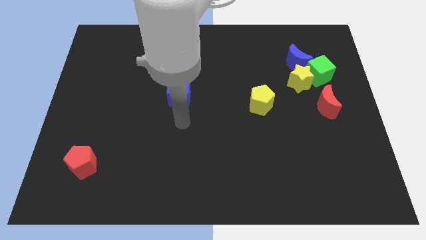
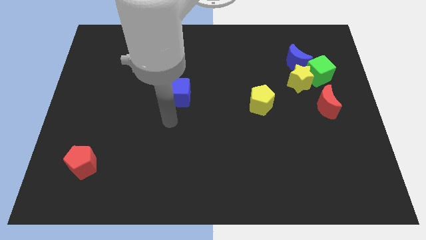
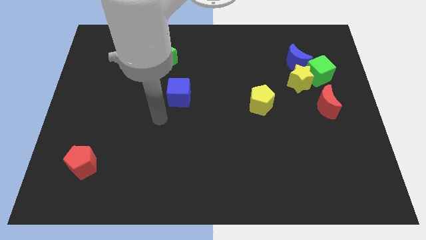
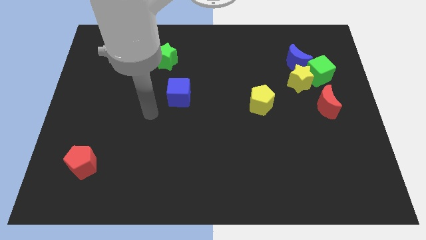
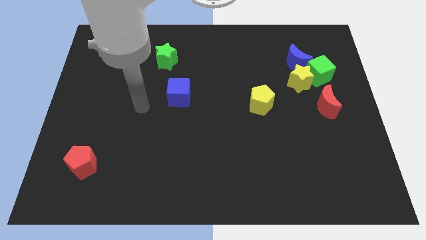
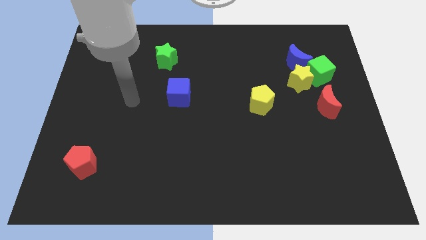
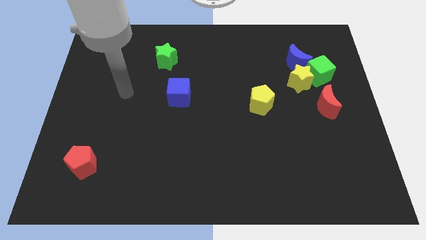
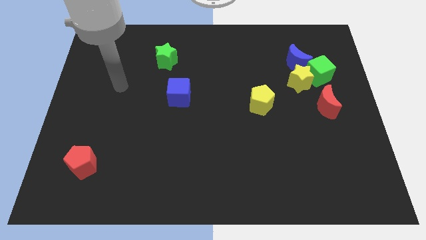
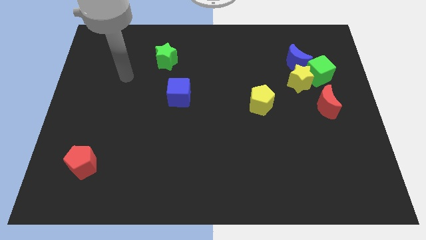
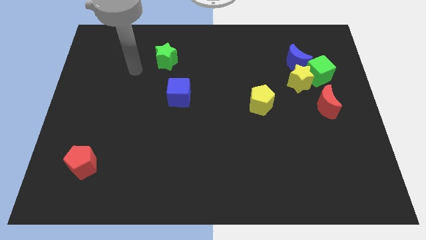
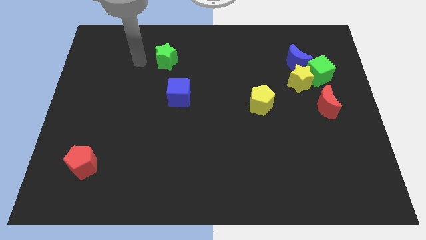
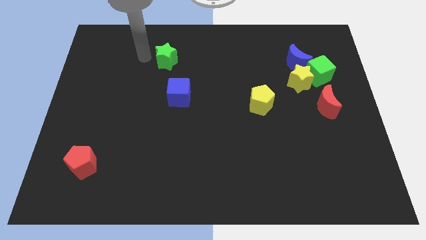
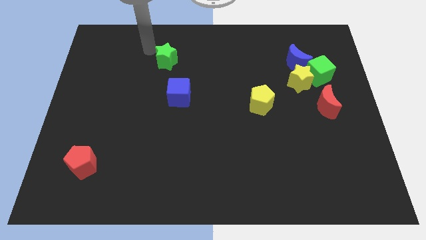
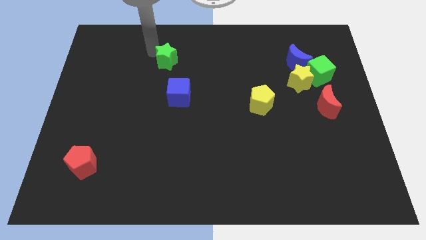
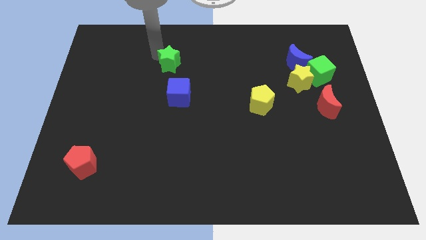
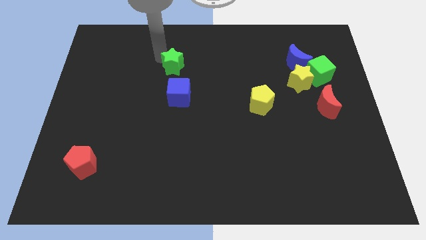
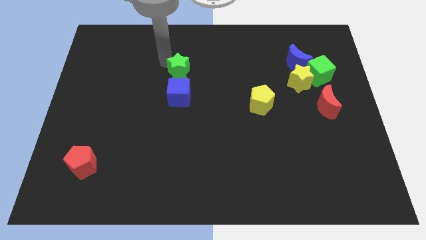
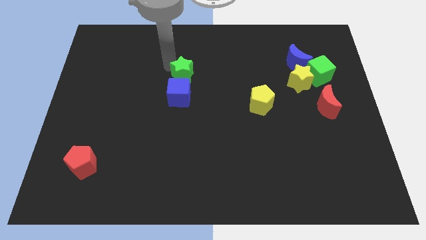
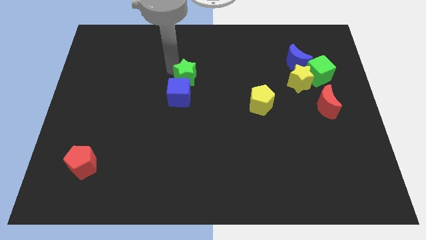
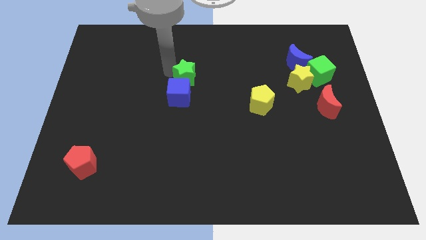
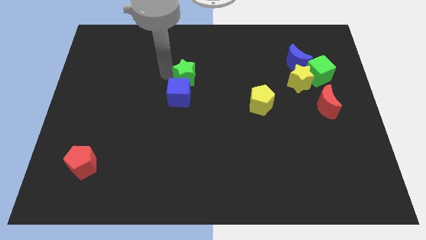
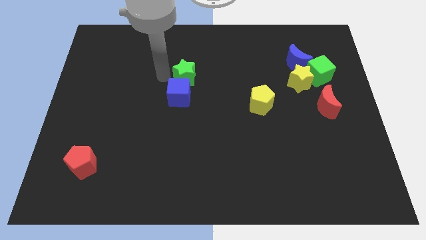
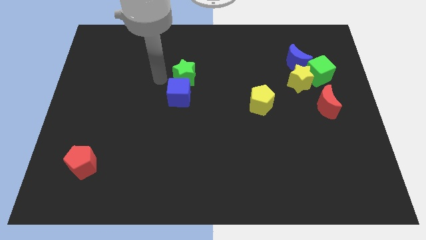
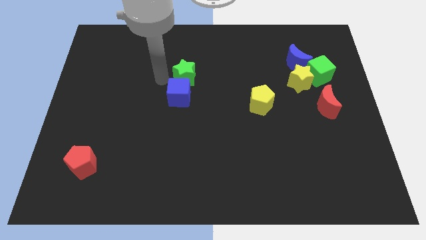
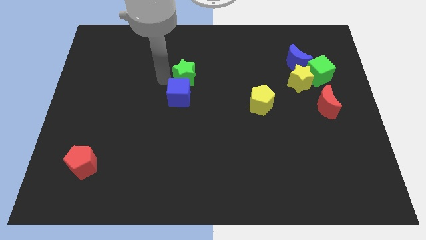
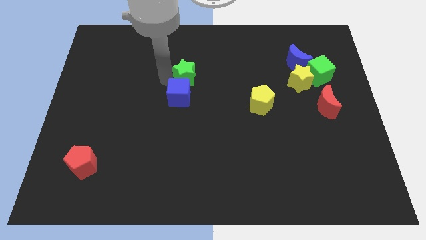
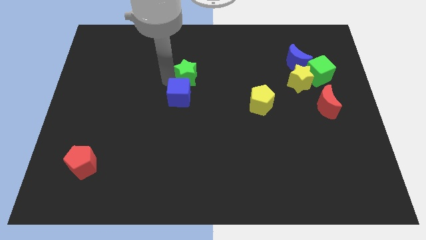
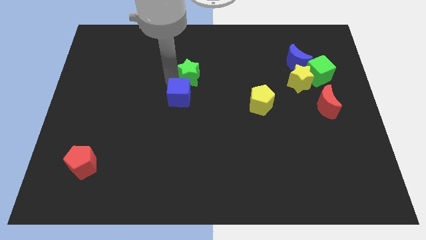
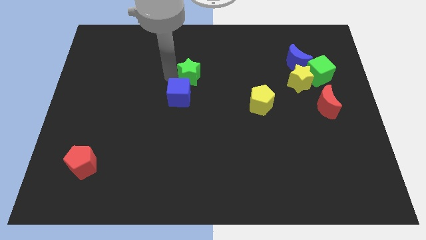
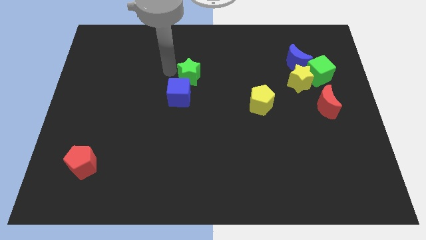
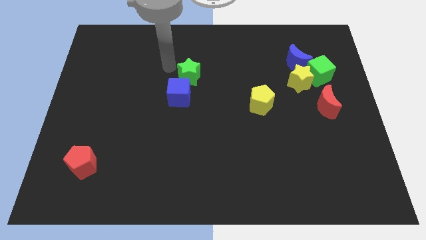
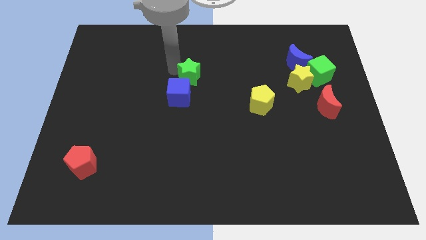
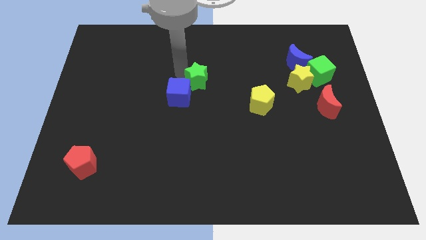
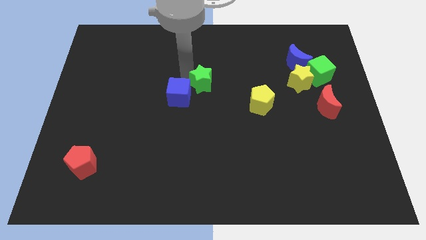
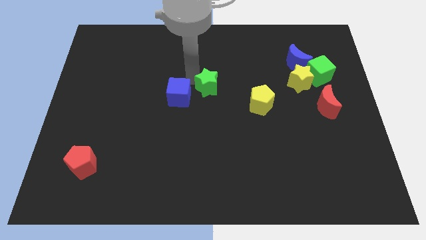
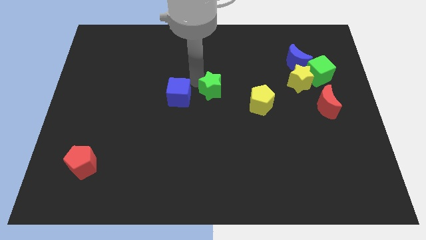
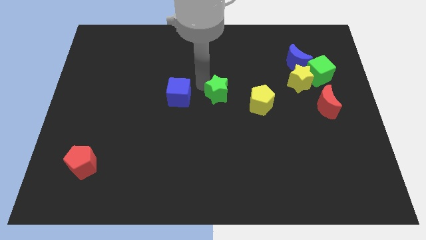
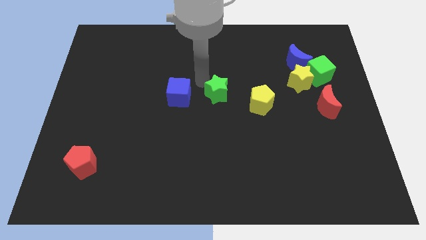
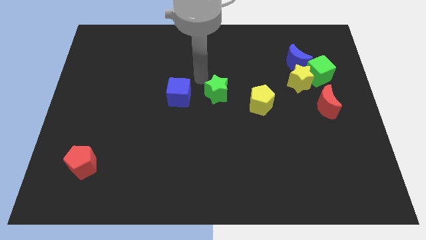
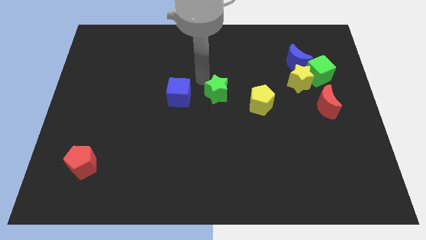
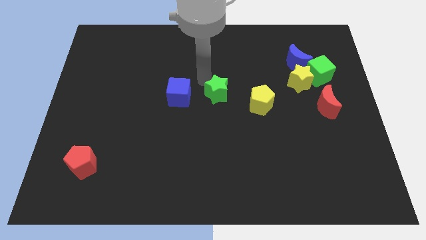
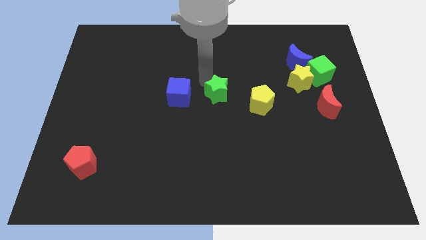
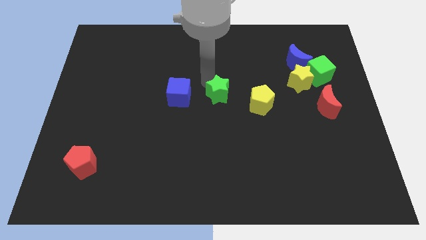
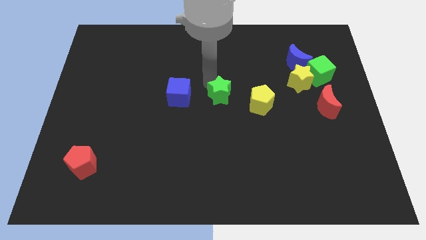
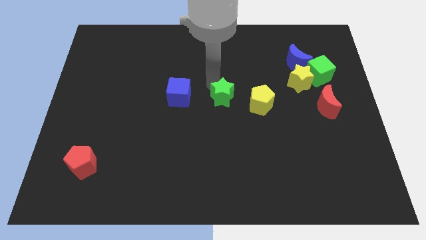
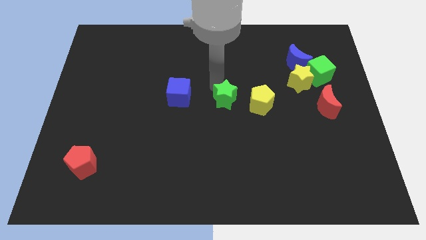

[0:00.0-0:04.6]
push the green star downwards and right diagonally

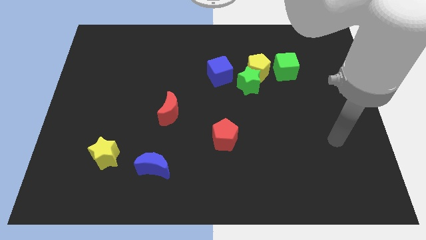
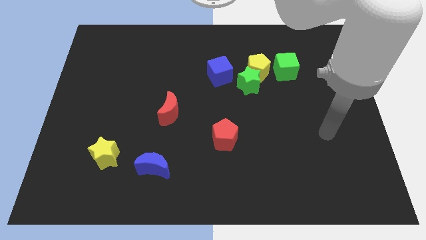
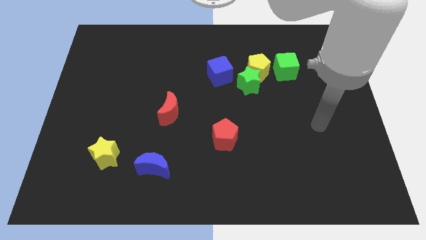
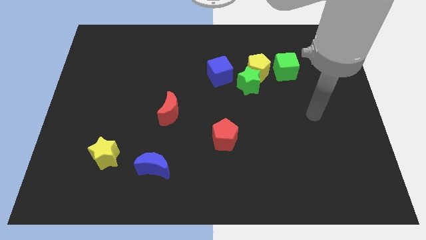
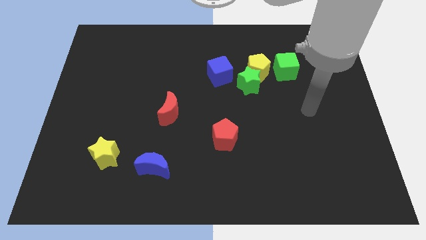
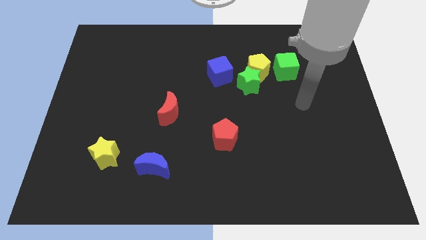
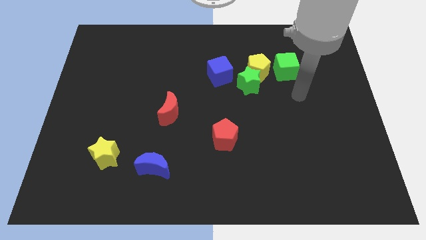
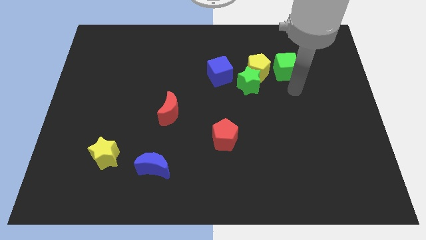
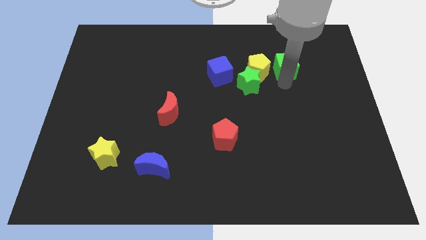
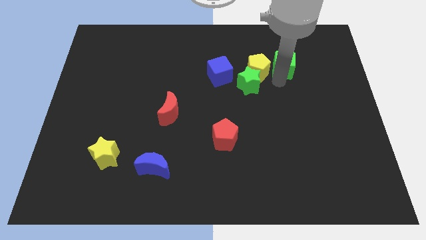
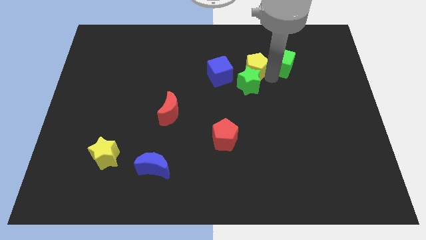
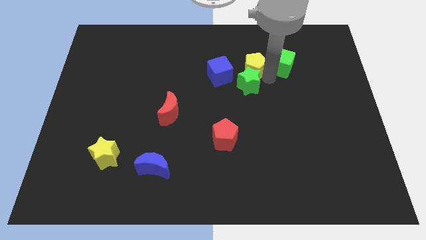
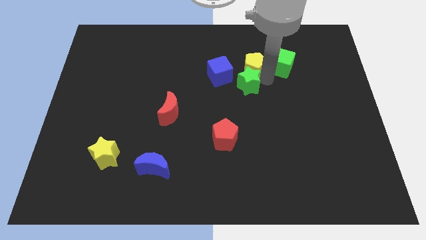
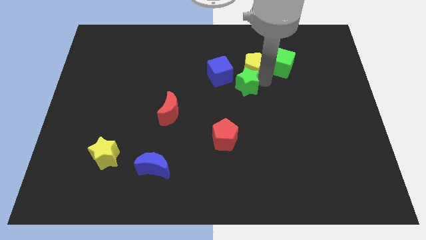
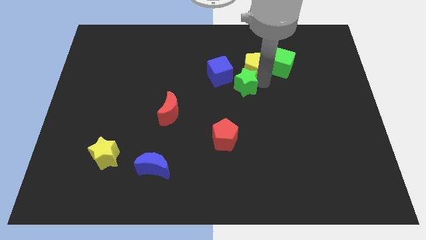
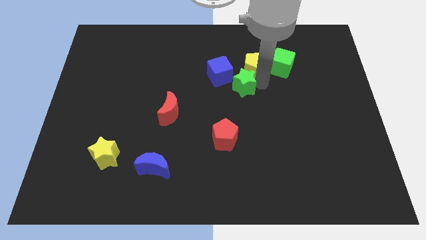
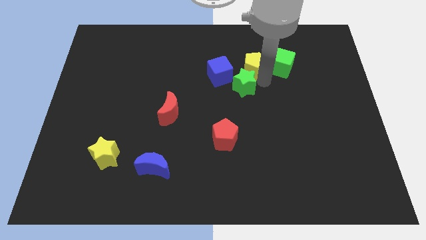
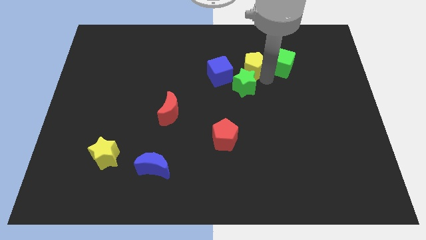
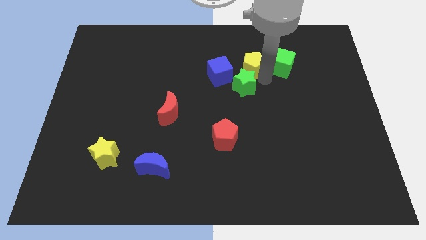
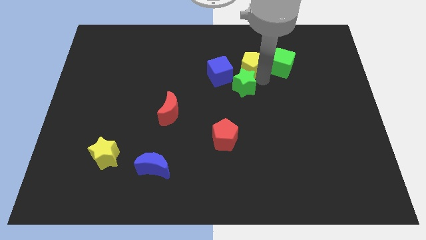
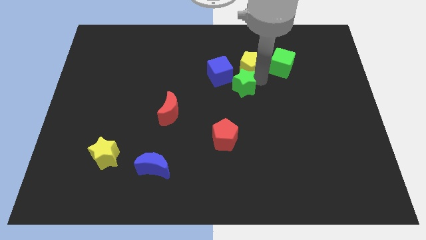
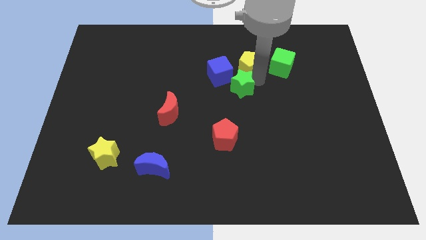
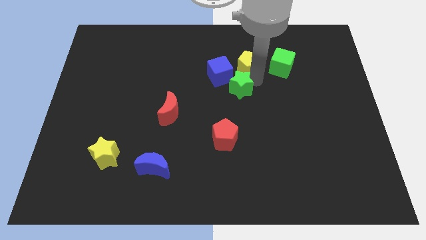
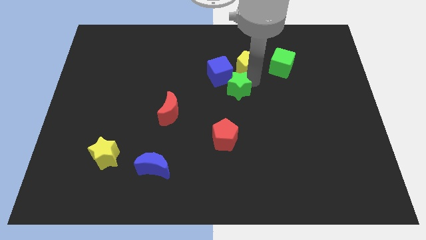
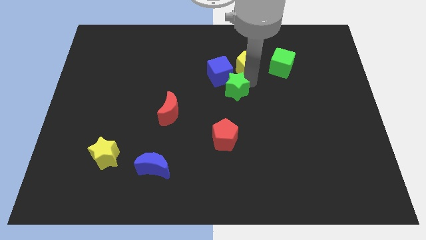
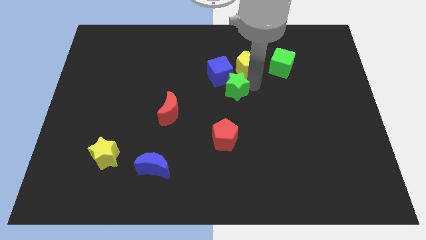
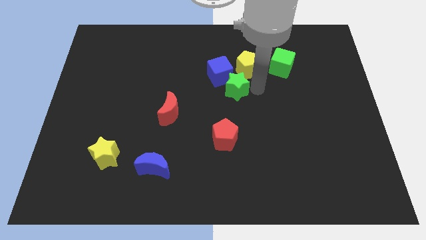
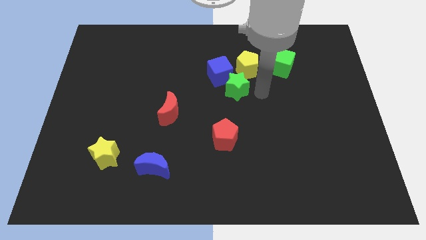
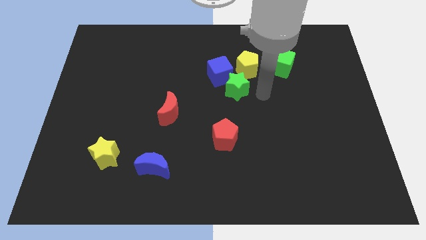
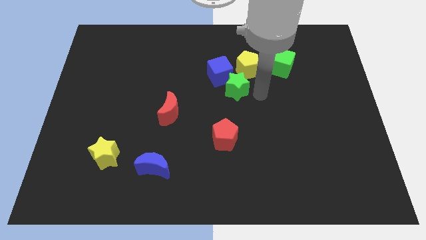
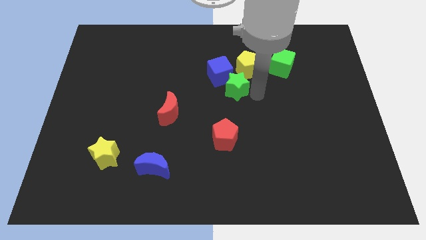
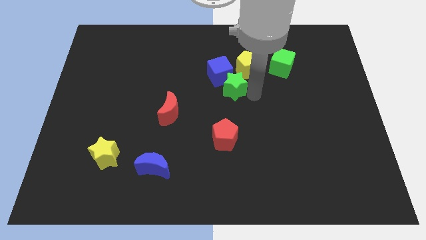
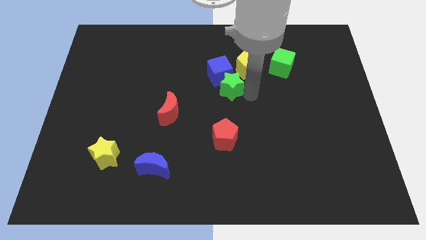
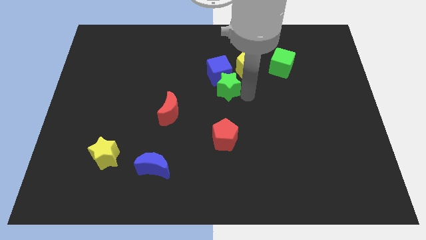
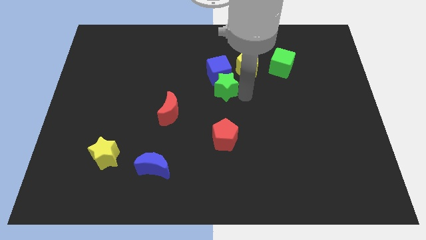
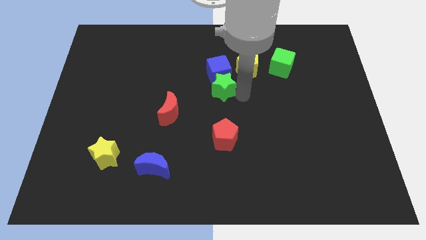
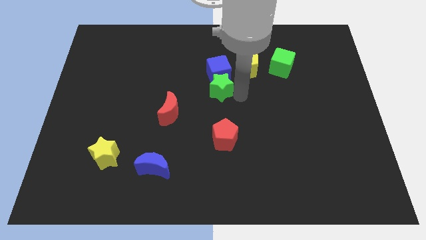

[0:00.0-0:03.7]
slightly push the green star to the left
